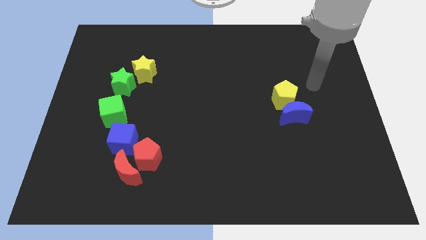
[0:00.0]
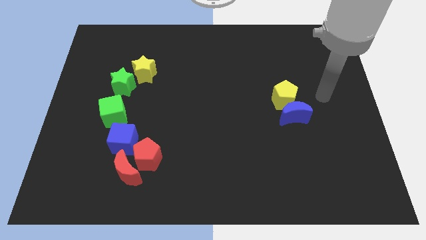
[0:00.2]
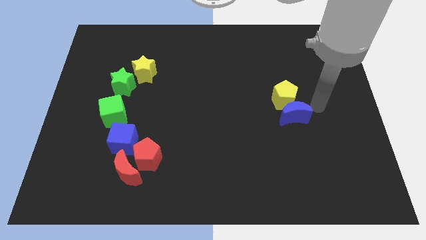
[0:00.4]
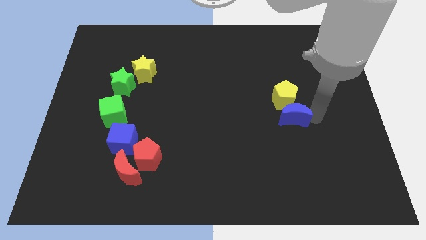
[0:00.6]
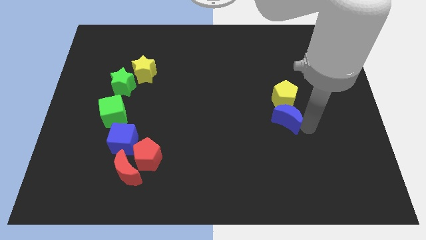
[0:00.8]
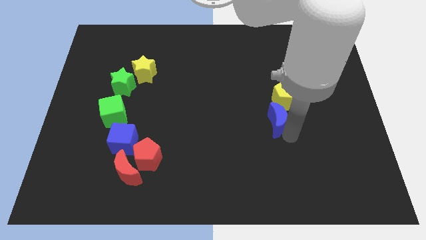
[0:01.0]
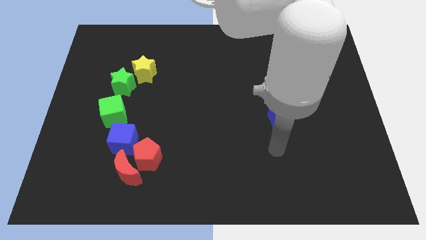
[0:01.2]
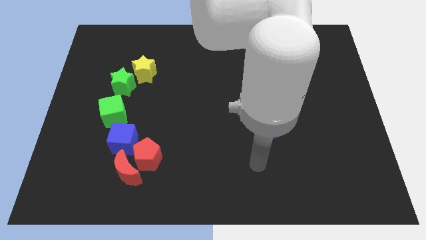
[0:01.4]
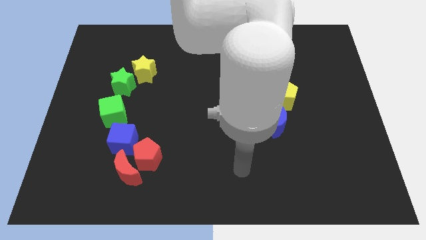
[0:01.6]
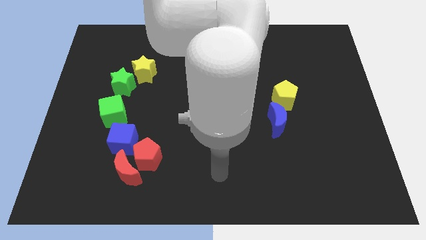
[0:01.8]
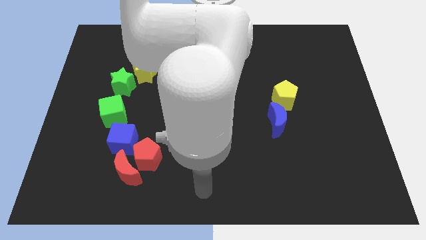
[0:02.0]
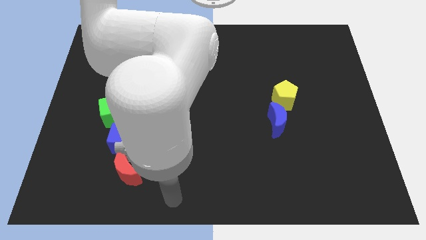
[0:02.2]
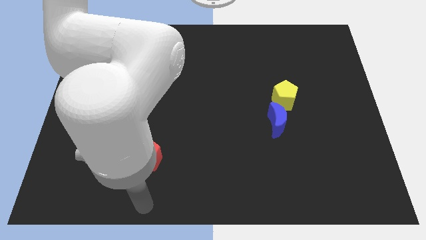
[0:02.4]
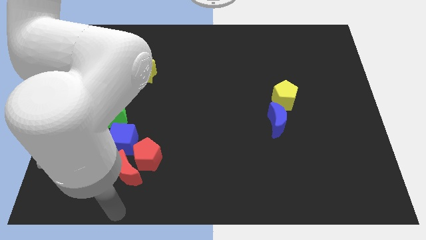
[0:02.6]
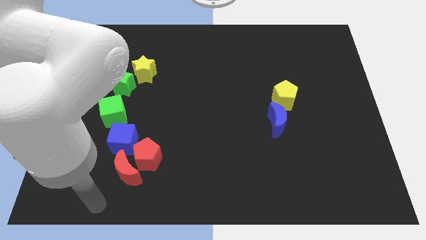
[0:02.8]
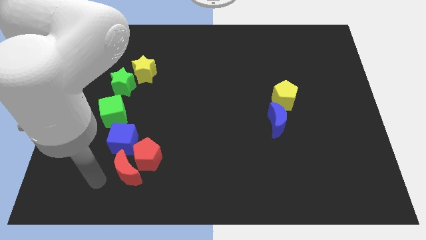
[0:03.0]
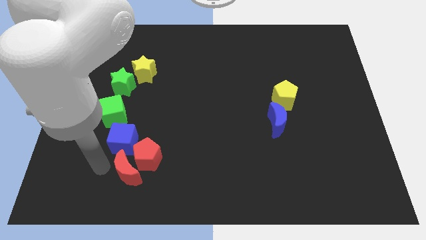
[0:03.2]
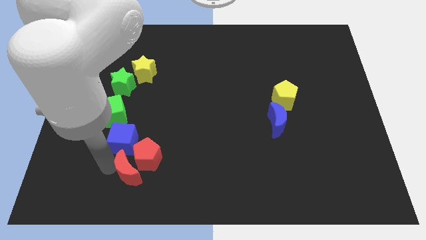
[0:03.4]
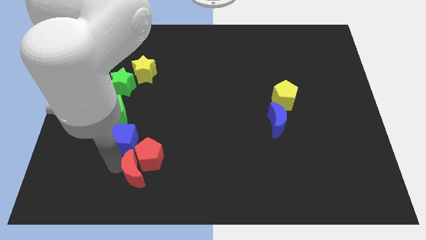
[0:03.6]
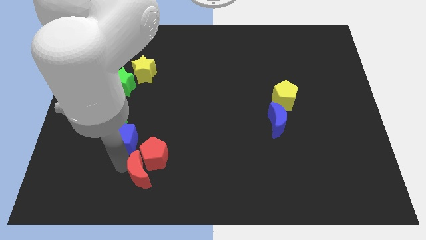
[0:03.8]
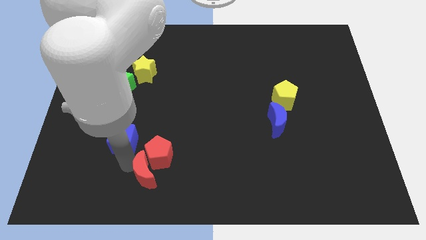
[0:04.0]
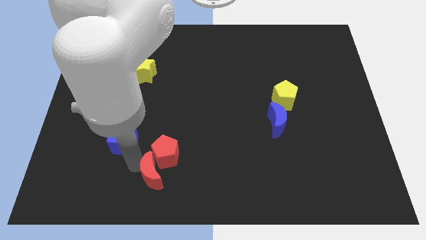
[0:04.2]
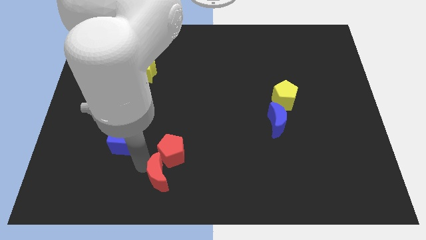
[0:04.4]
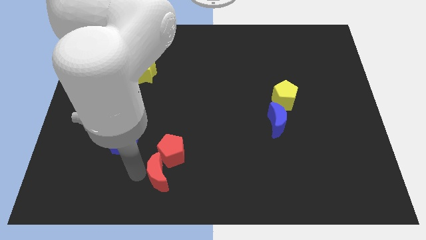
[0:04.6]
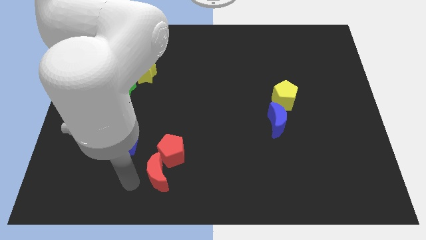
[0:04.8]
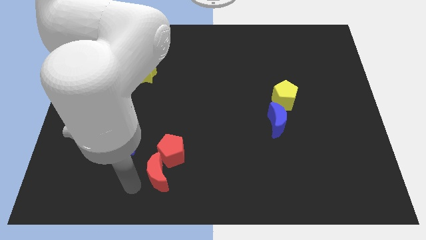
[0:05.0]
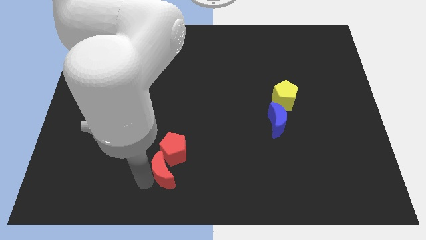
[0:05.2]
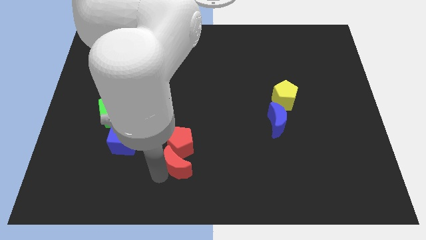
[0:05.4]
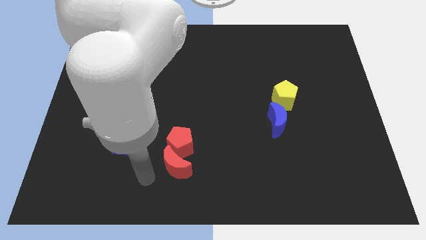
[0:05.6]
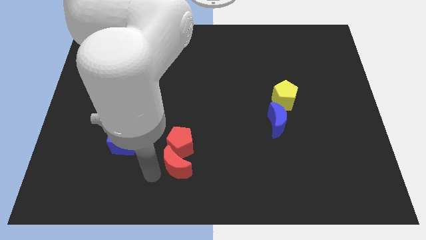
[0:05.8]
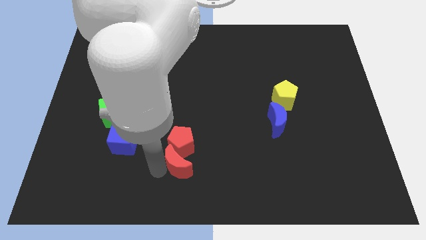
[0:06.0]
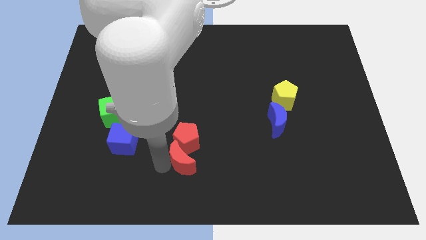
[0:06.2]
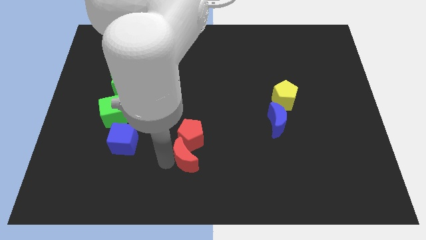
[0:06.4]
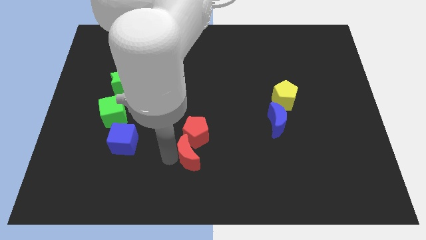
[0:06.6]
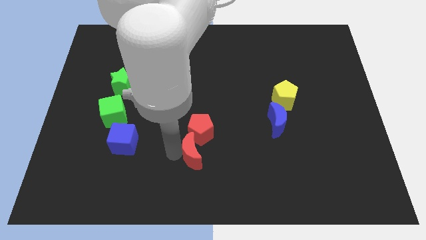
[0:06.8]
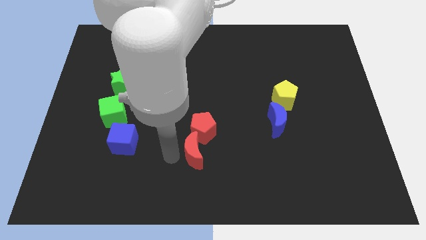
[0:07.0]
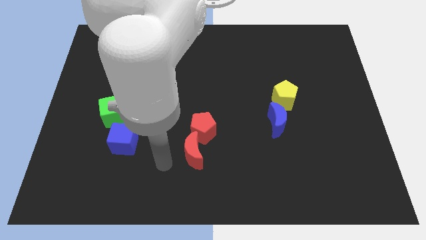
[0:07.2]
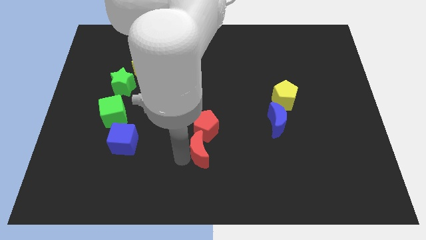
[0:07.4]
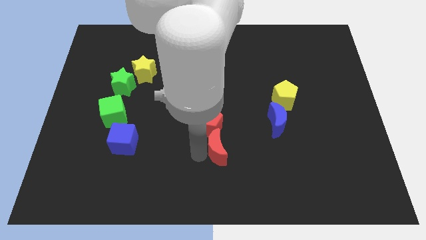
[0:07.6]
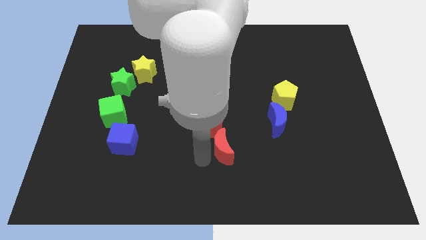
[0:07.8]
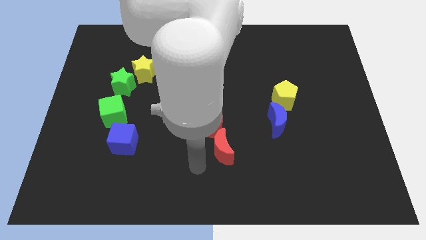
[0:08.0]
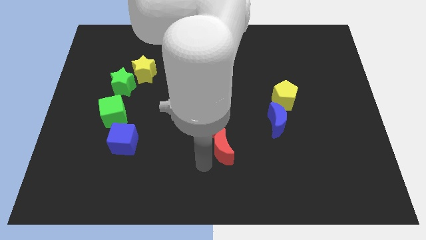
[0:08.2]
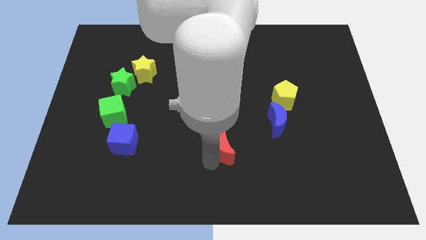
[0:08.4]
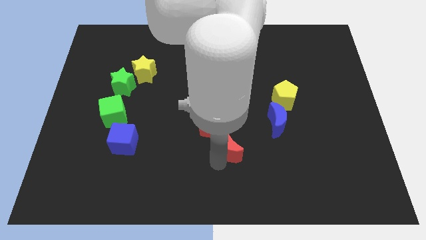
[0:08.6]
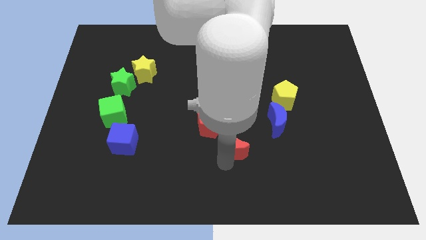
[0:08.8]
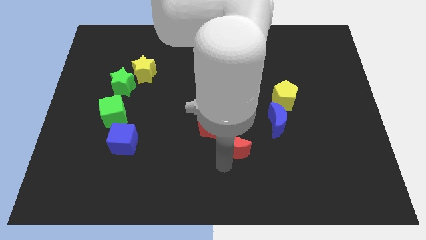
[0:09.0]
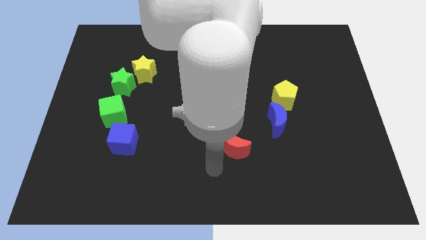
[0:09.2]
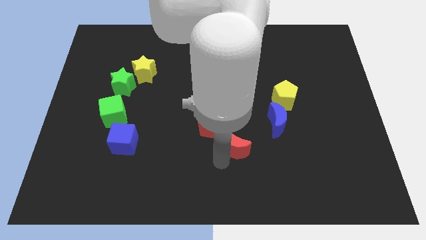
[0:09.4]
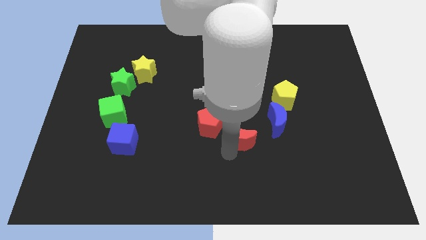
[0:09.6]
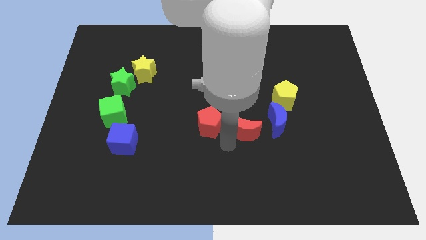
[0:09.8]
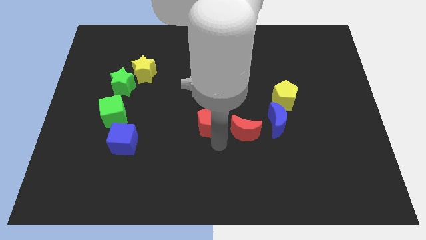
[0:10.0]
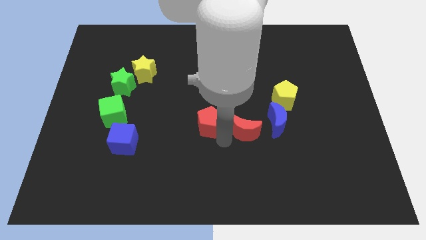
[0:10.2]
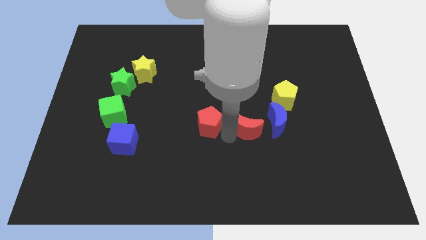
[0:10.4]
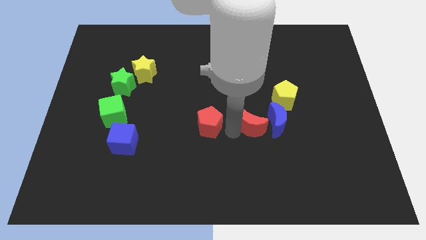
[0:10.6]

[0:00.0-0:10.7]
slide the red moon to the blue moon

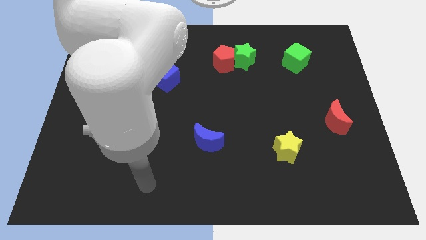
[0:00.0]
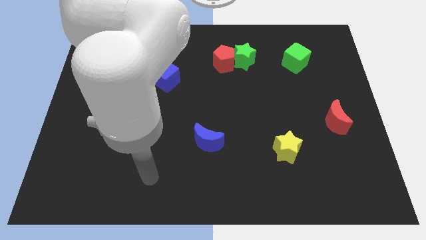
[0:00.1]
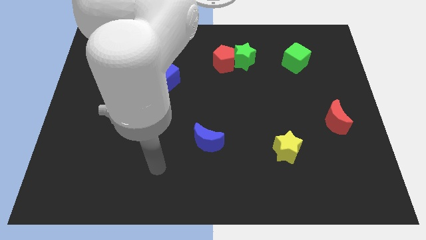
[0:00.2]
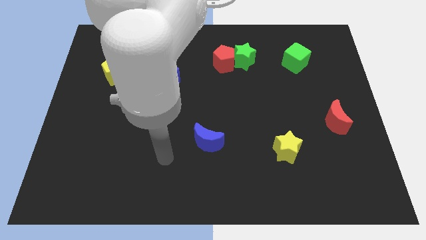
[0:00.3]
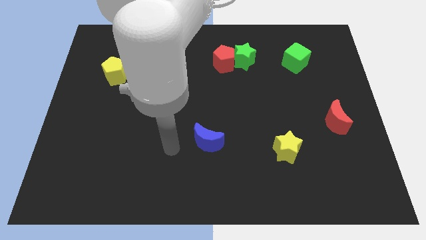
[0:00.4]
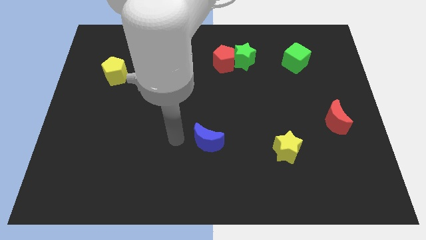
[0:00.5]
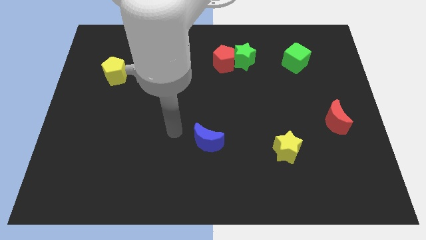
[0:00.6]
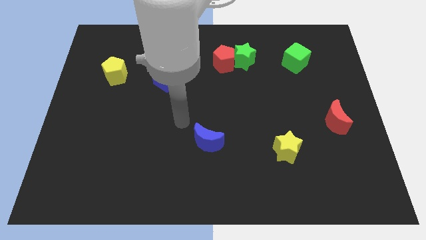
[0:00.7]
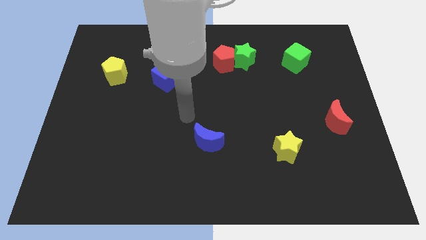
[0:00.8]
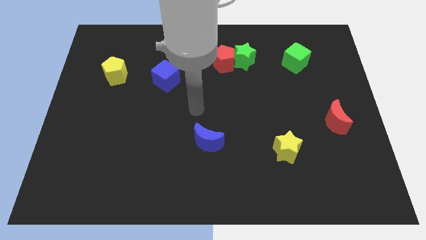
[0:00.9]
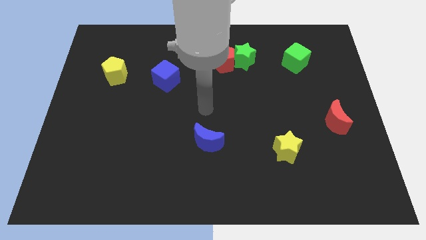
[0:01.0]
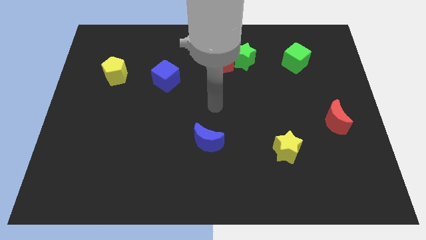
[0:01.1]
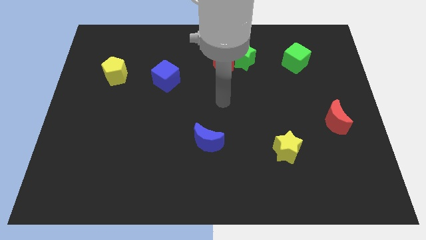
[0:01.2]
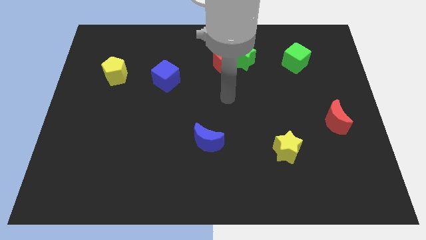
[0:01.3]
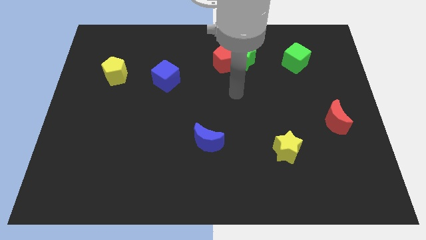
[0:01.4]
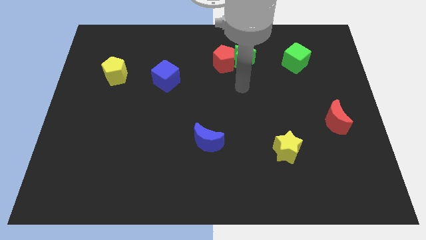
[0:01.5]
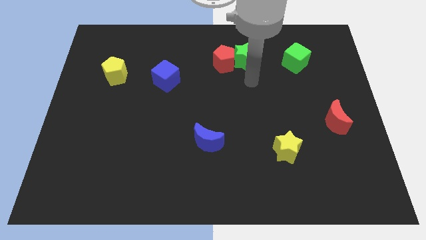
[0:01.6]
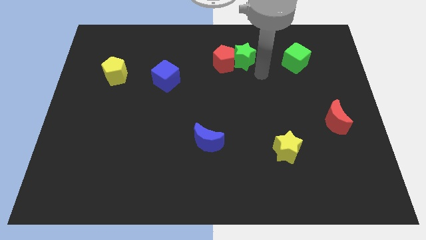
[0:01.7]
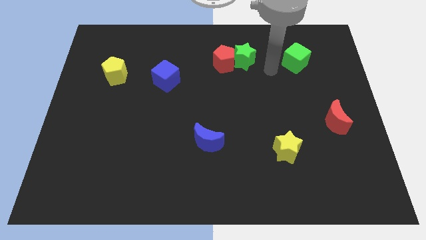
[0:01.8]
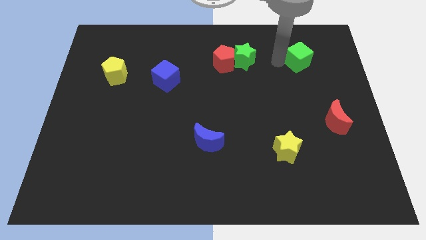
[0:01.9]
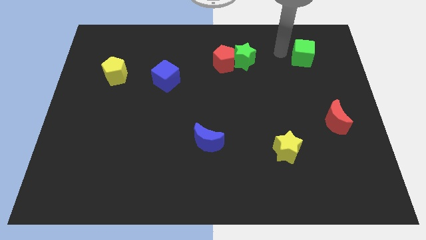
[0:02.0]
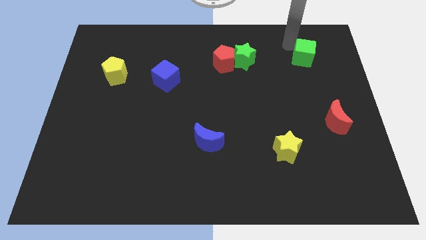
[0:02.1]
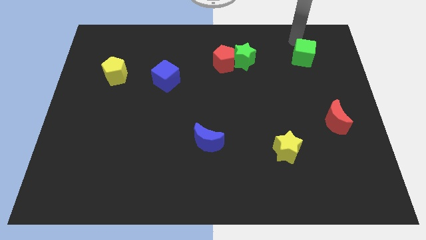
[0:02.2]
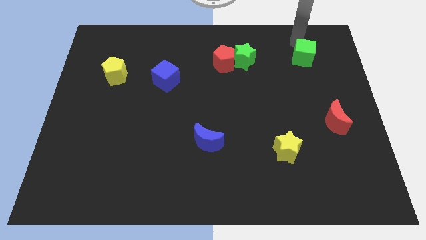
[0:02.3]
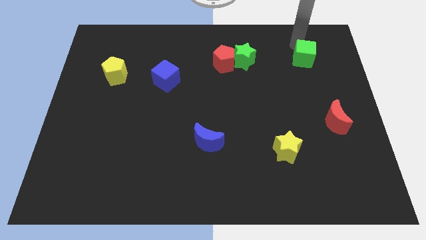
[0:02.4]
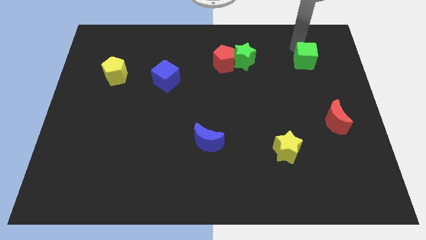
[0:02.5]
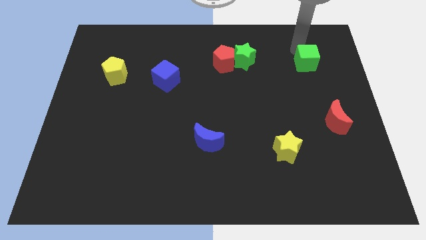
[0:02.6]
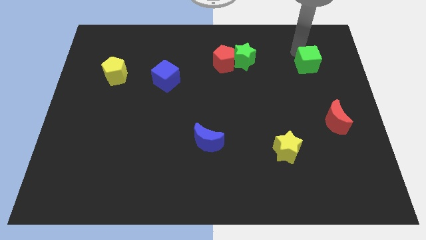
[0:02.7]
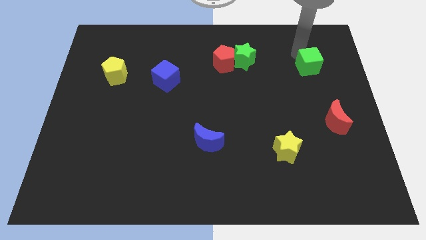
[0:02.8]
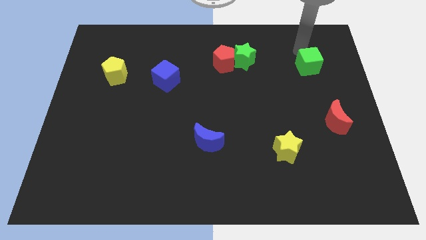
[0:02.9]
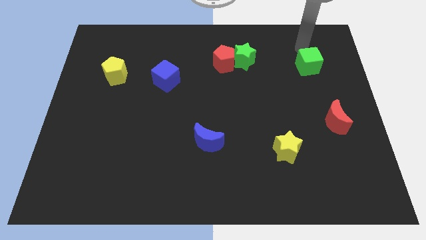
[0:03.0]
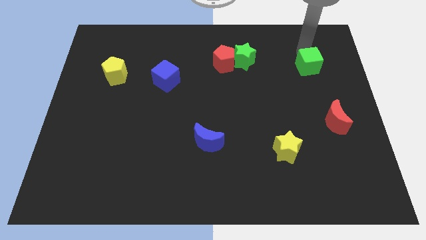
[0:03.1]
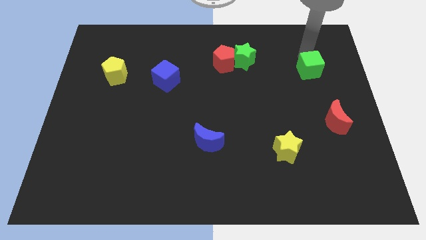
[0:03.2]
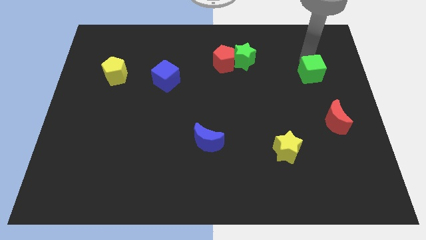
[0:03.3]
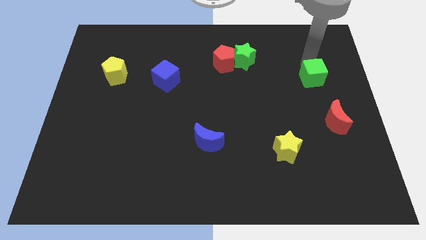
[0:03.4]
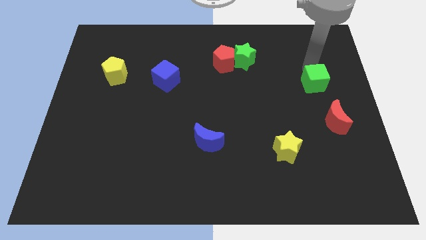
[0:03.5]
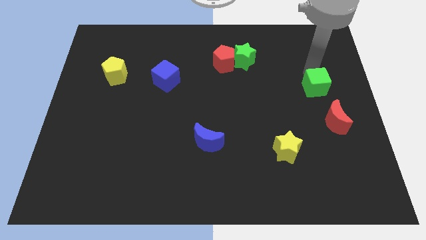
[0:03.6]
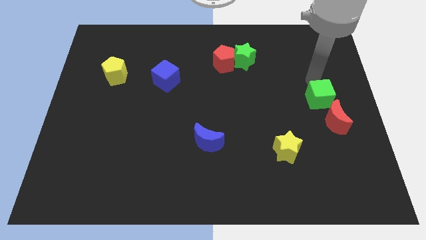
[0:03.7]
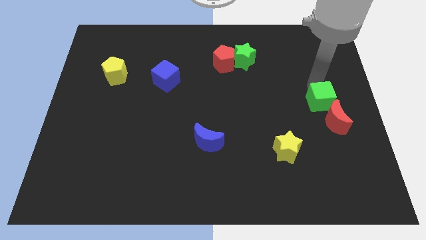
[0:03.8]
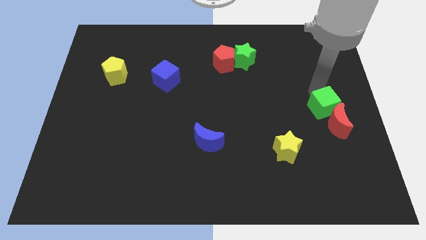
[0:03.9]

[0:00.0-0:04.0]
push the green cube close to the red moon
